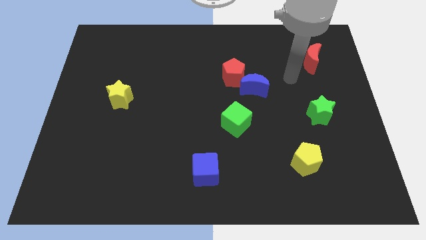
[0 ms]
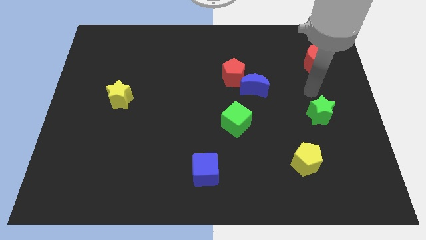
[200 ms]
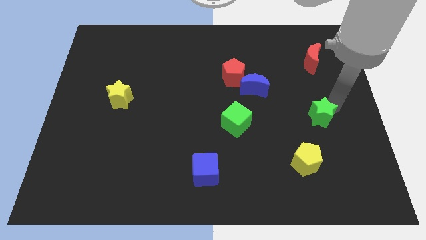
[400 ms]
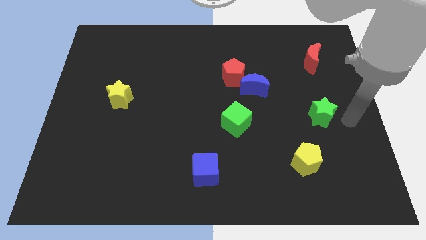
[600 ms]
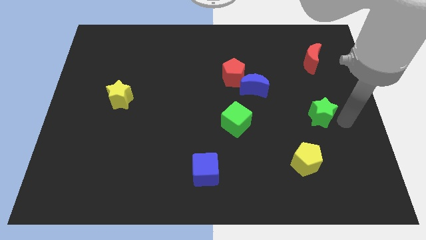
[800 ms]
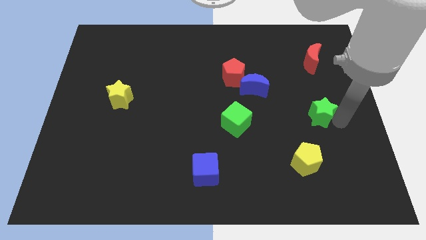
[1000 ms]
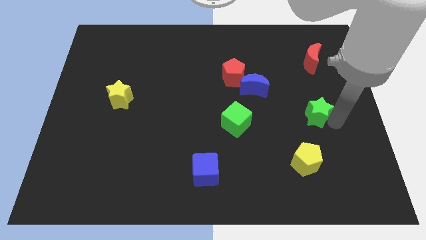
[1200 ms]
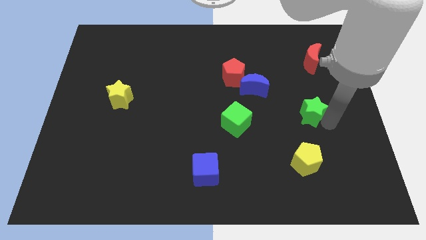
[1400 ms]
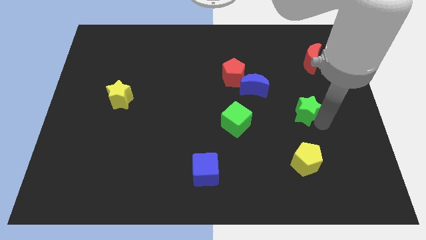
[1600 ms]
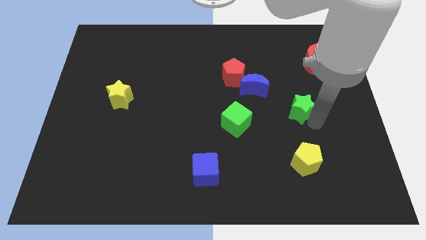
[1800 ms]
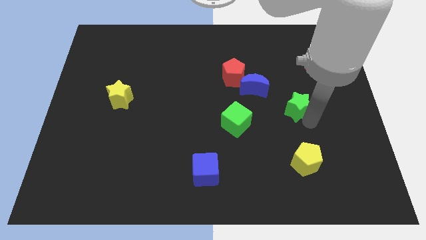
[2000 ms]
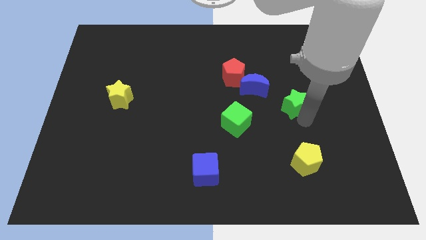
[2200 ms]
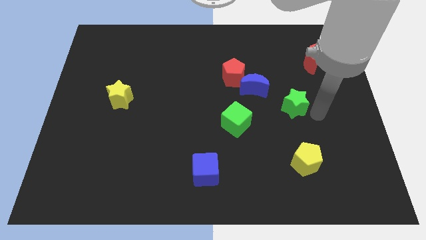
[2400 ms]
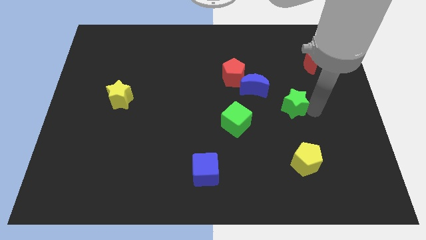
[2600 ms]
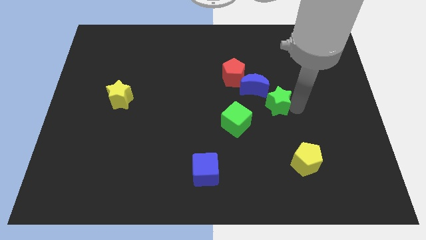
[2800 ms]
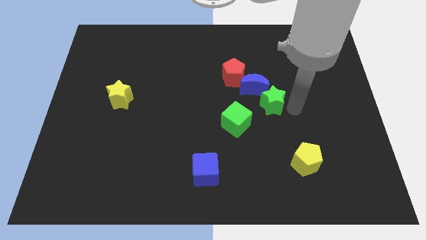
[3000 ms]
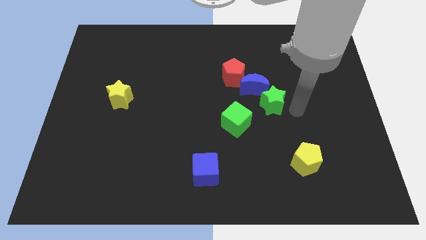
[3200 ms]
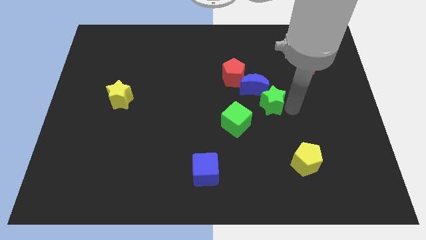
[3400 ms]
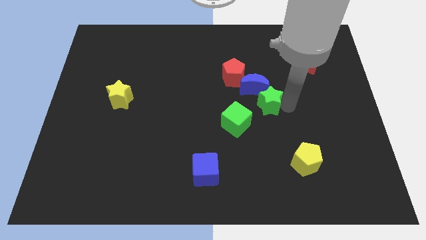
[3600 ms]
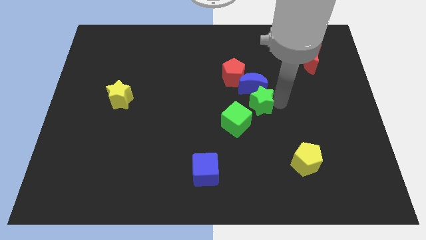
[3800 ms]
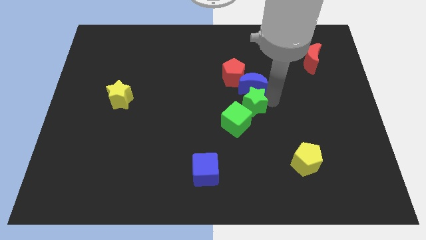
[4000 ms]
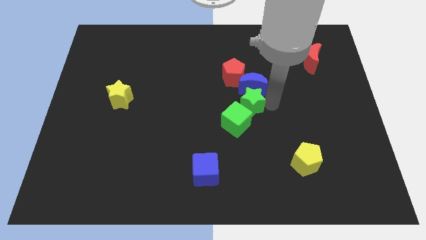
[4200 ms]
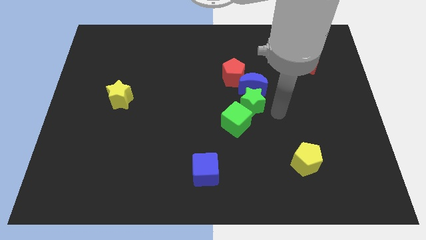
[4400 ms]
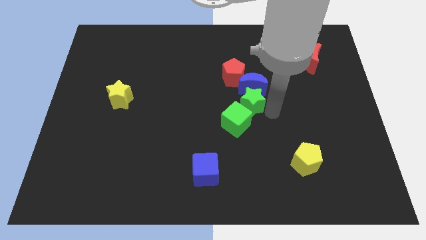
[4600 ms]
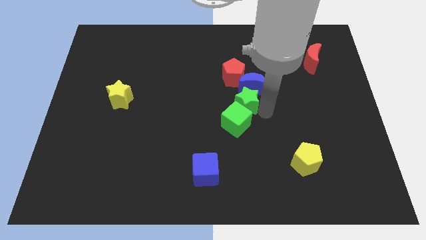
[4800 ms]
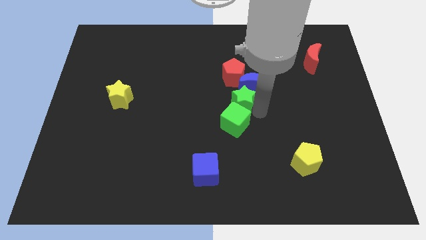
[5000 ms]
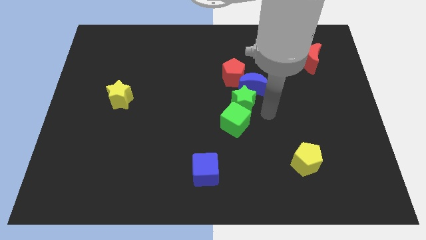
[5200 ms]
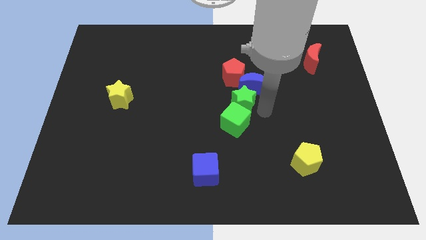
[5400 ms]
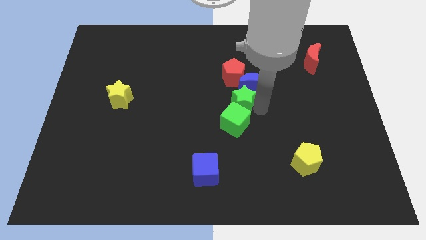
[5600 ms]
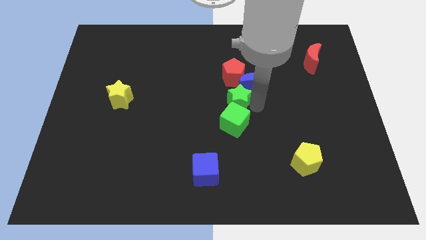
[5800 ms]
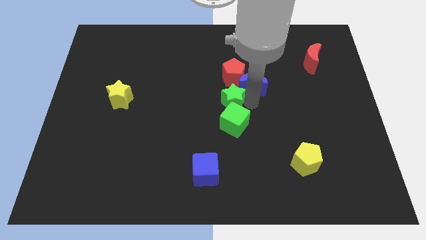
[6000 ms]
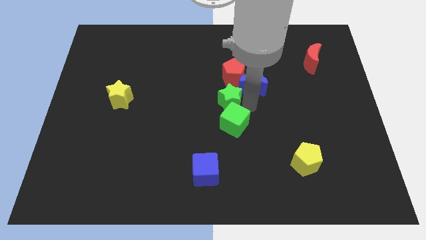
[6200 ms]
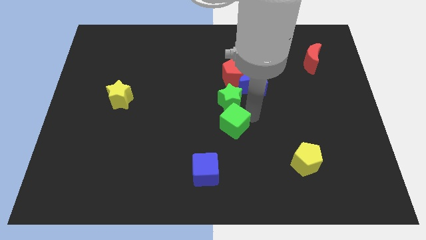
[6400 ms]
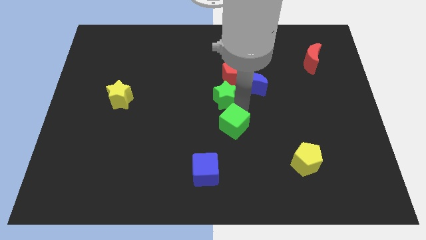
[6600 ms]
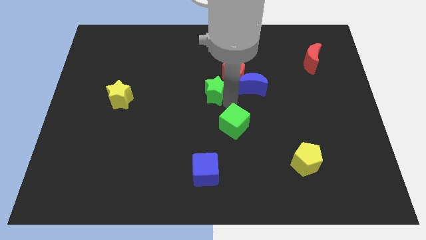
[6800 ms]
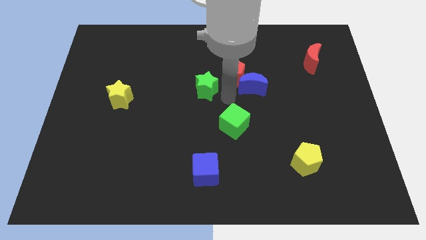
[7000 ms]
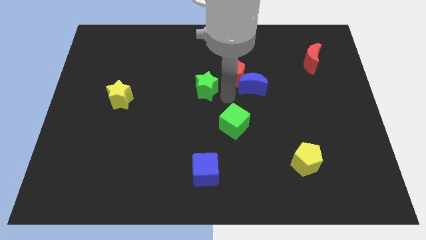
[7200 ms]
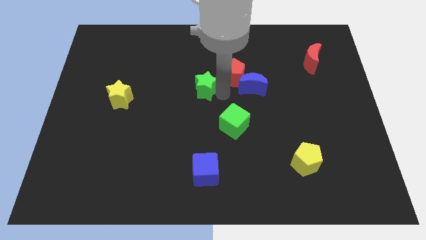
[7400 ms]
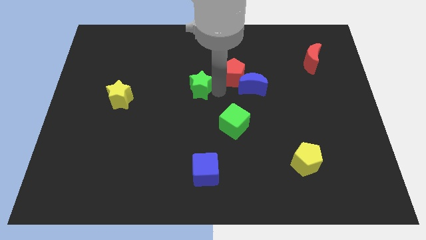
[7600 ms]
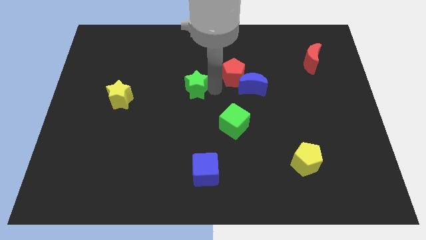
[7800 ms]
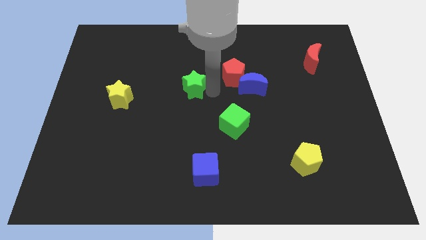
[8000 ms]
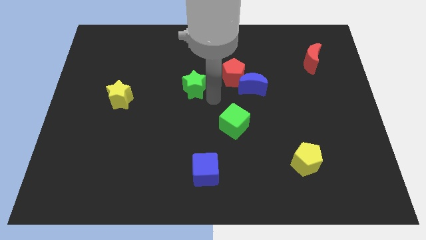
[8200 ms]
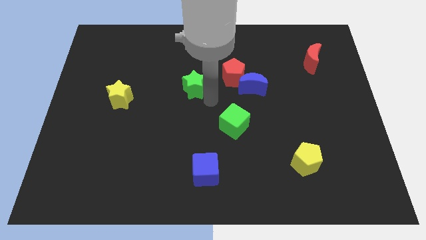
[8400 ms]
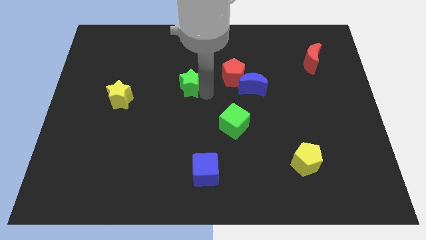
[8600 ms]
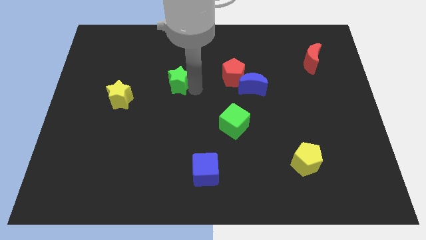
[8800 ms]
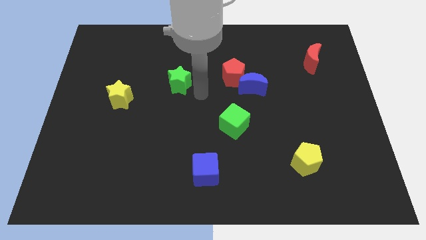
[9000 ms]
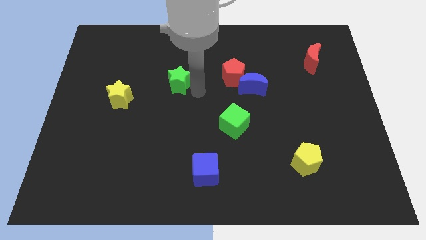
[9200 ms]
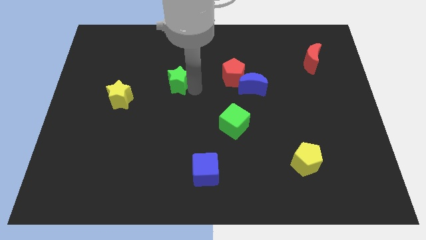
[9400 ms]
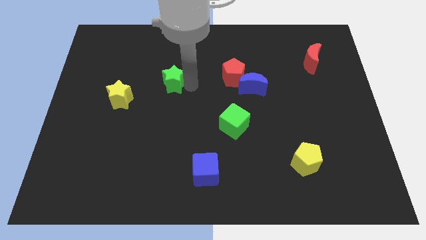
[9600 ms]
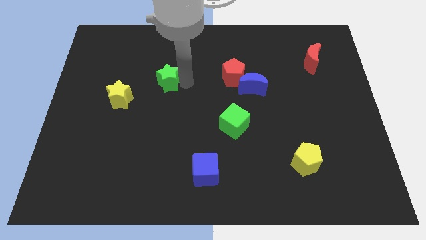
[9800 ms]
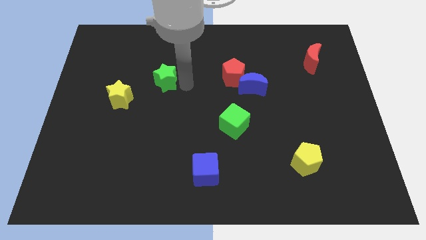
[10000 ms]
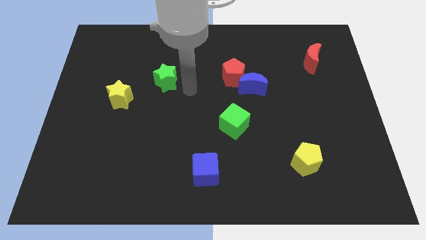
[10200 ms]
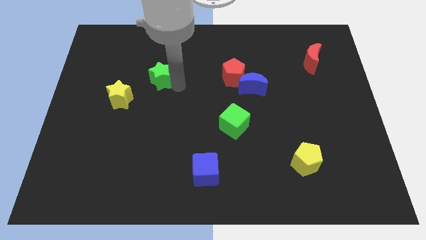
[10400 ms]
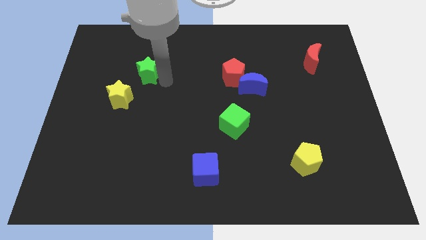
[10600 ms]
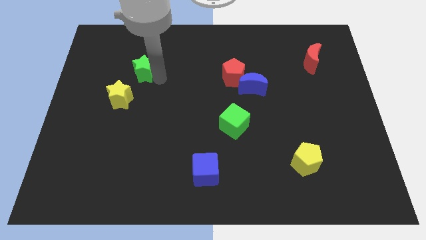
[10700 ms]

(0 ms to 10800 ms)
move the green star to the top side of the yellow star
